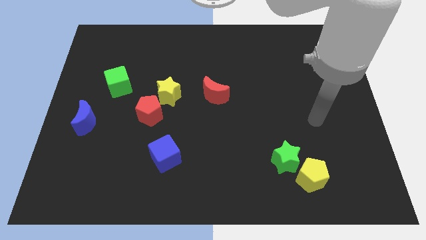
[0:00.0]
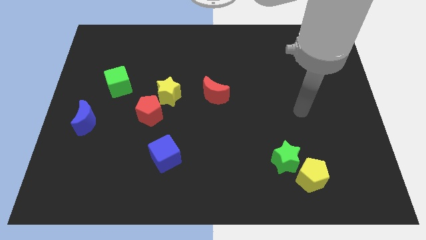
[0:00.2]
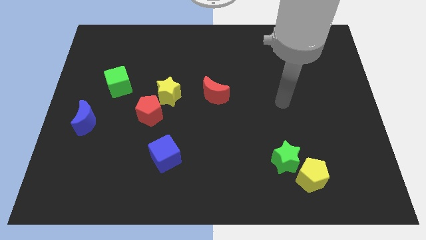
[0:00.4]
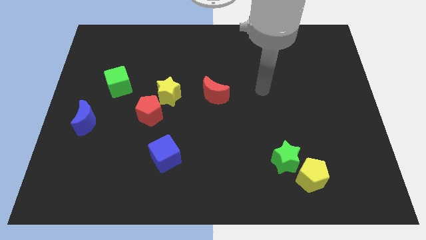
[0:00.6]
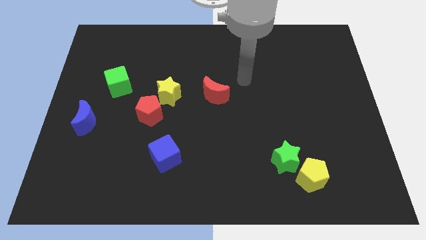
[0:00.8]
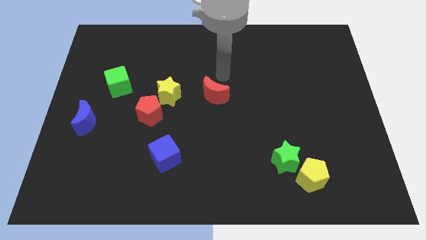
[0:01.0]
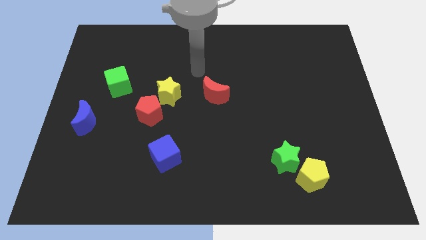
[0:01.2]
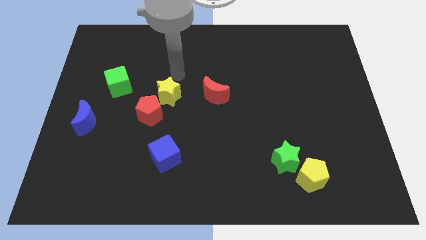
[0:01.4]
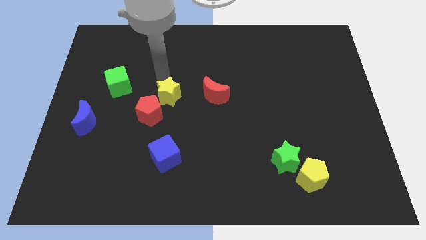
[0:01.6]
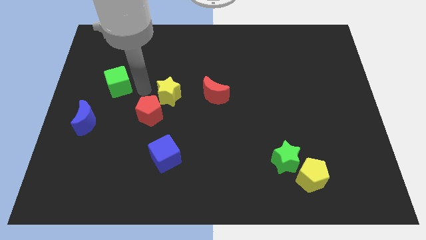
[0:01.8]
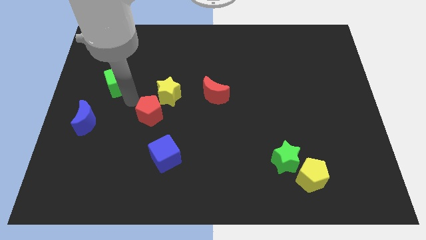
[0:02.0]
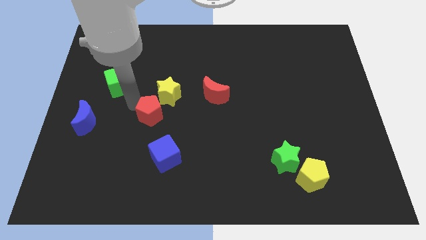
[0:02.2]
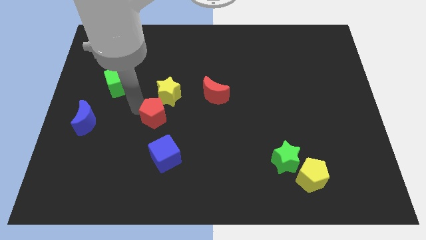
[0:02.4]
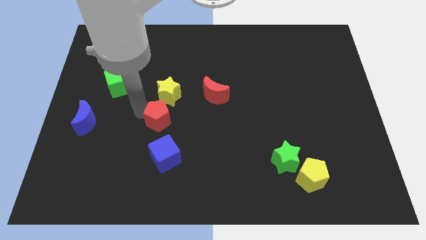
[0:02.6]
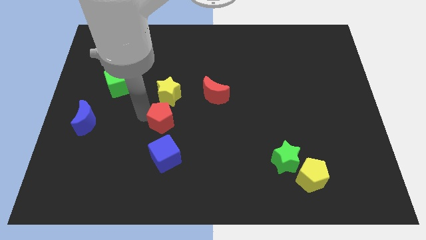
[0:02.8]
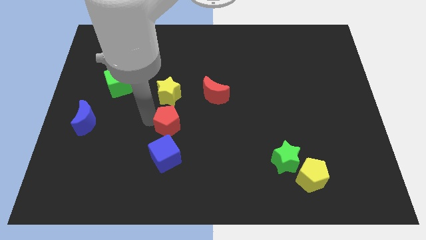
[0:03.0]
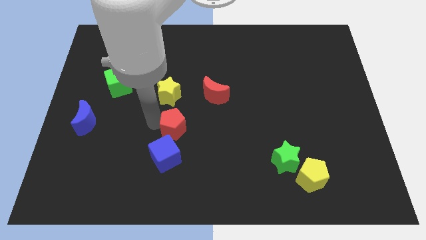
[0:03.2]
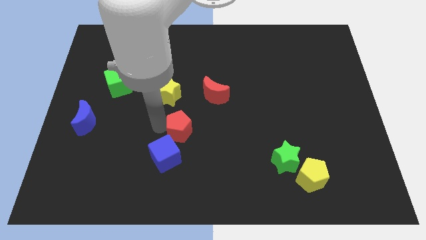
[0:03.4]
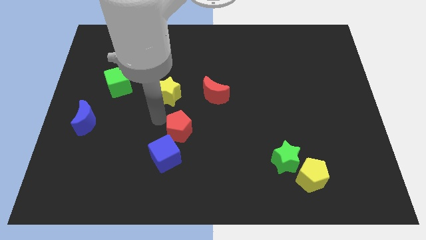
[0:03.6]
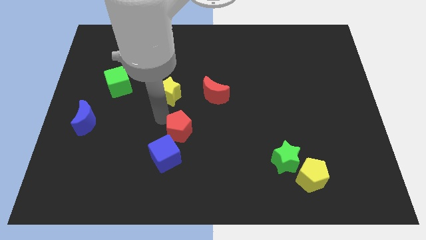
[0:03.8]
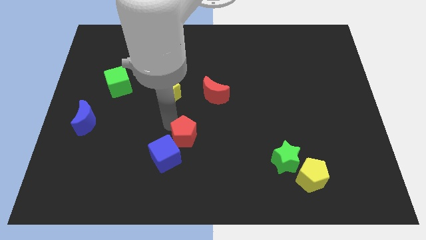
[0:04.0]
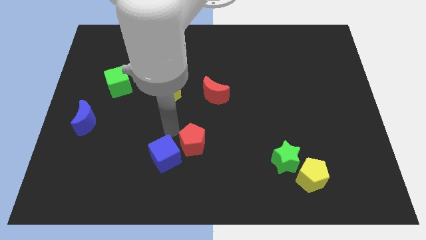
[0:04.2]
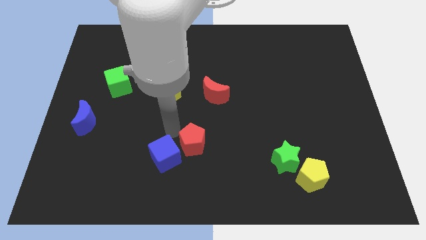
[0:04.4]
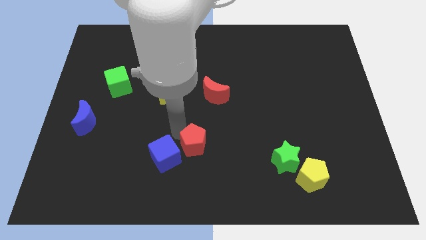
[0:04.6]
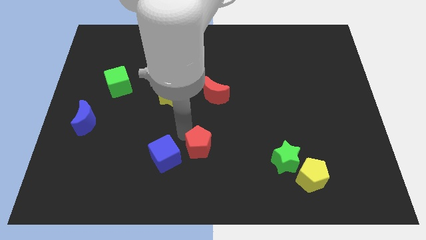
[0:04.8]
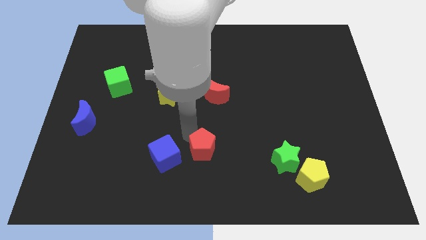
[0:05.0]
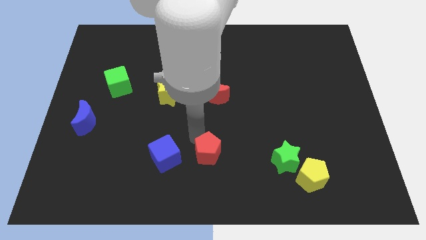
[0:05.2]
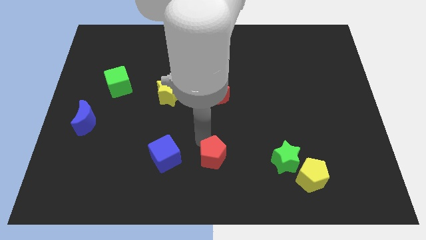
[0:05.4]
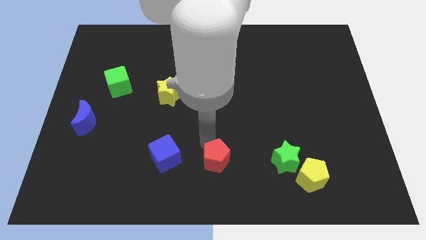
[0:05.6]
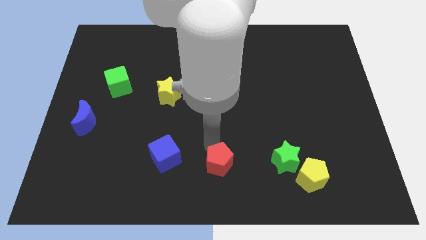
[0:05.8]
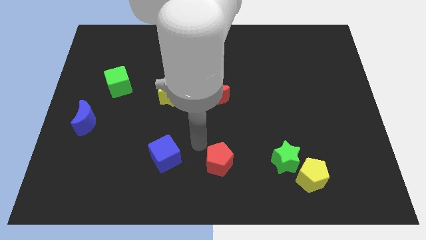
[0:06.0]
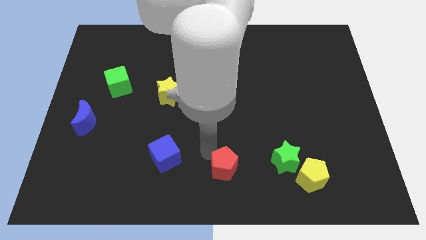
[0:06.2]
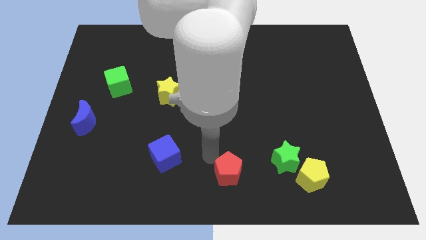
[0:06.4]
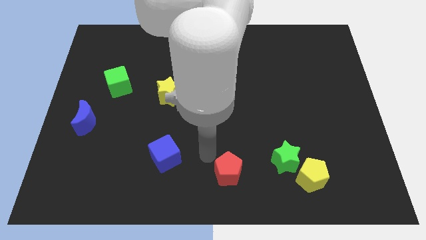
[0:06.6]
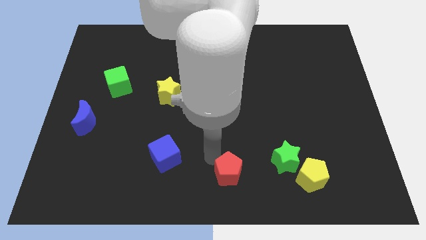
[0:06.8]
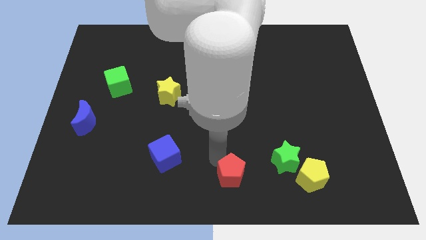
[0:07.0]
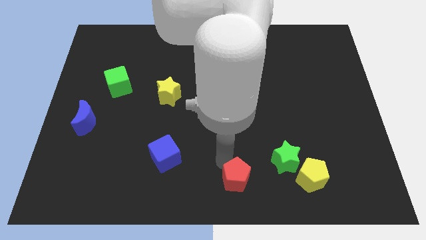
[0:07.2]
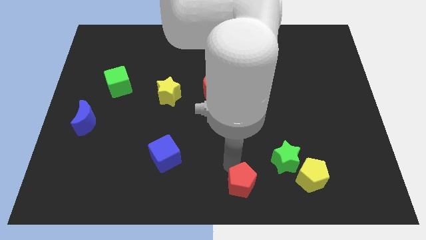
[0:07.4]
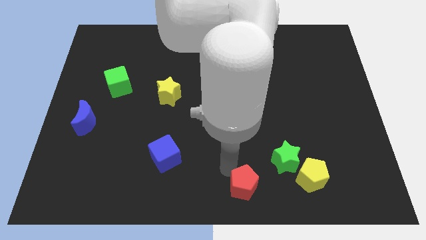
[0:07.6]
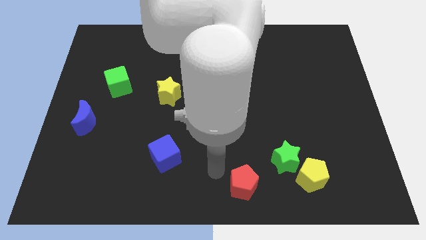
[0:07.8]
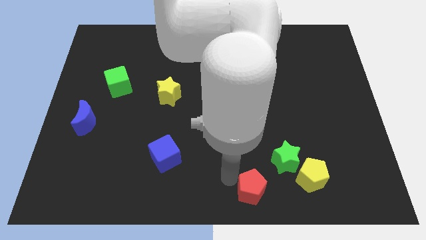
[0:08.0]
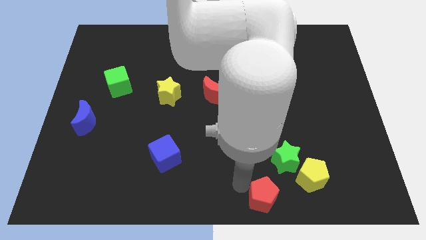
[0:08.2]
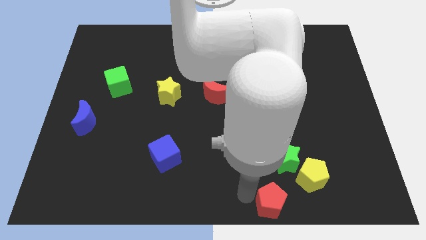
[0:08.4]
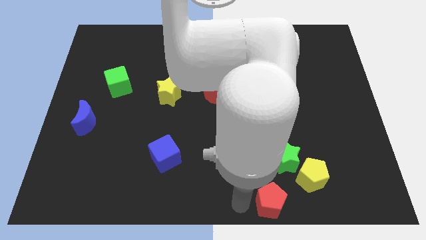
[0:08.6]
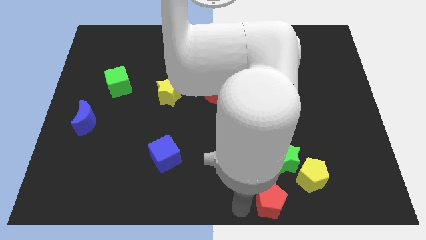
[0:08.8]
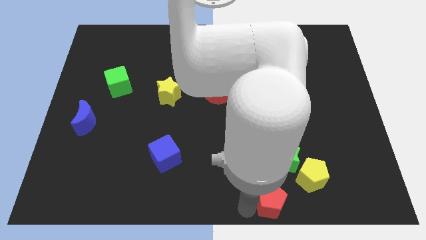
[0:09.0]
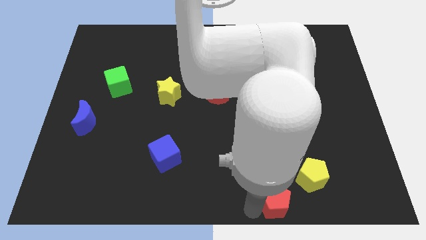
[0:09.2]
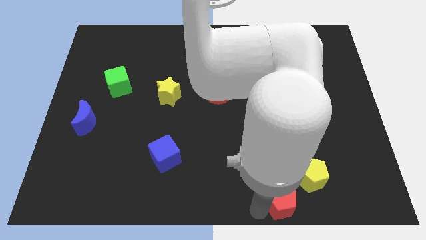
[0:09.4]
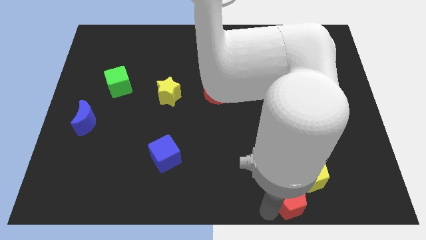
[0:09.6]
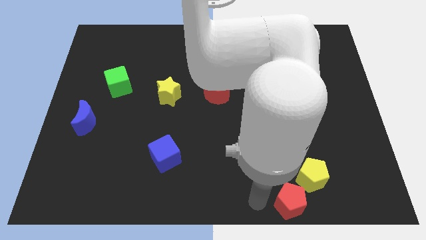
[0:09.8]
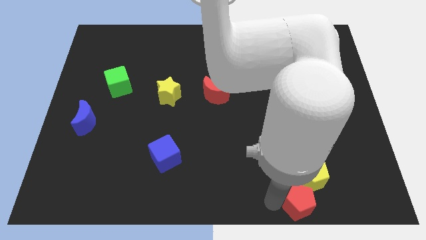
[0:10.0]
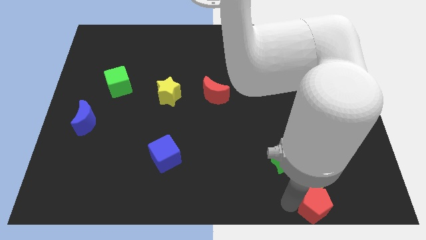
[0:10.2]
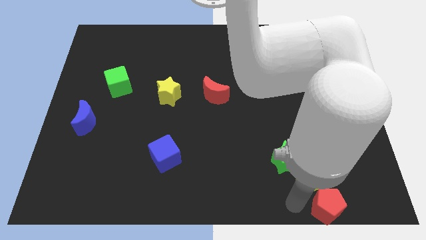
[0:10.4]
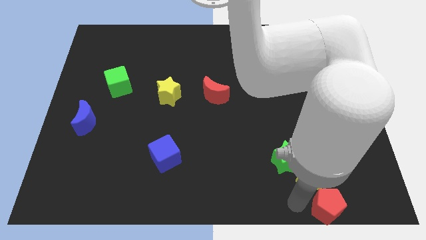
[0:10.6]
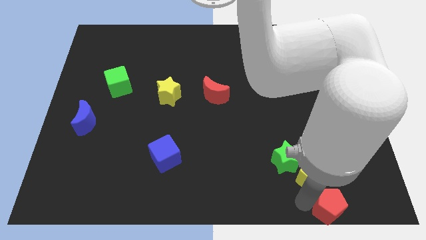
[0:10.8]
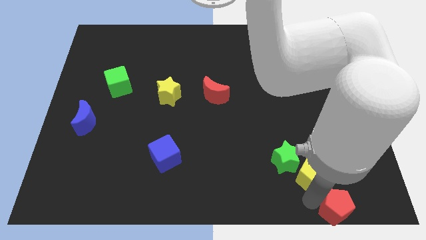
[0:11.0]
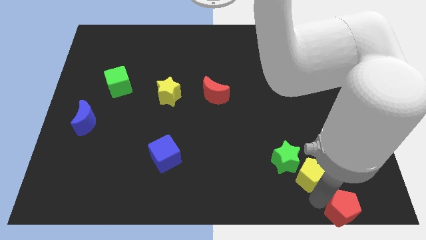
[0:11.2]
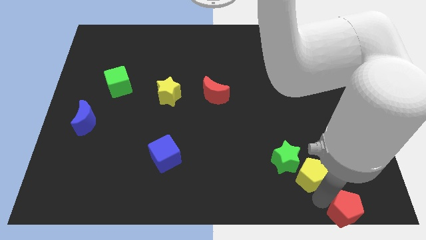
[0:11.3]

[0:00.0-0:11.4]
move the red pentagon to the bottom right corner

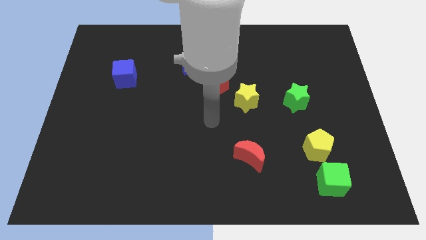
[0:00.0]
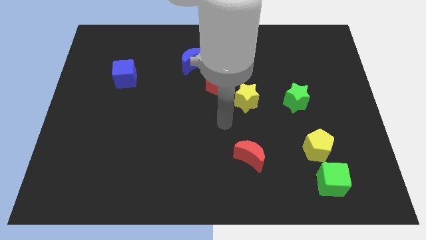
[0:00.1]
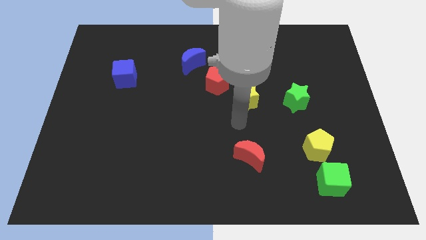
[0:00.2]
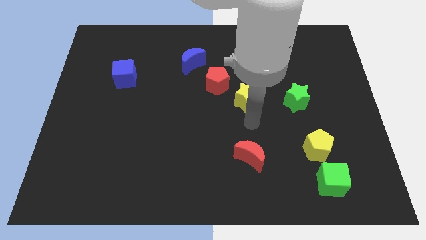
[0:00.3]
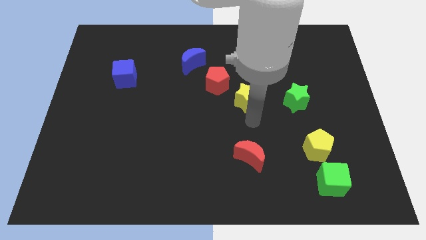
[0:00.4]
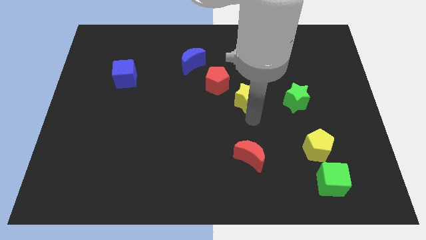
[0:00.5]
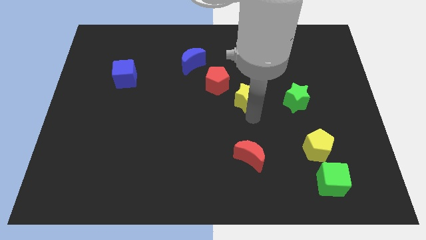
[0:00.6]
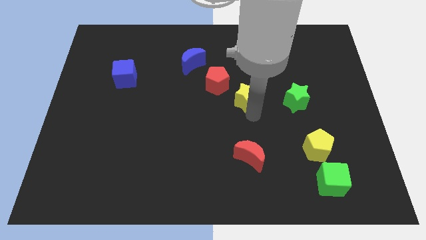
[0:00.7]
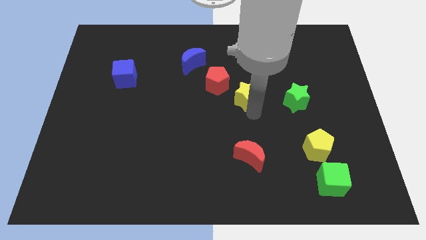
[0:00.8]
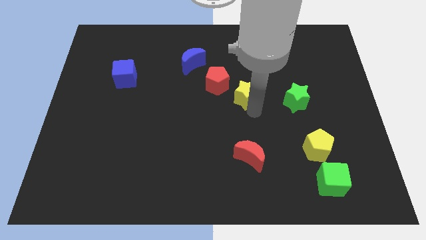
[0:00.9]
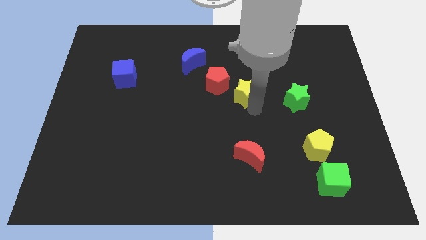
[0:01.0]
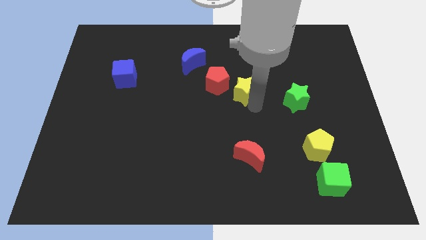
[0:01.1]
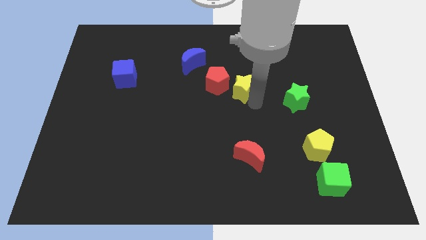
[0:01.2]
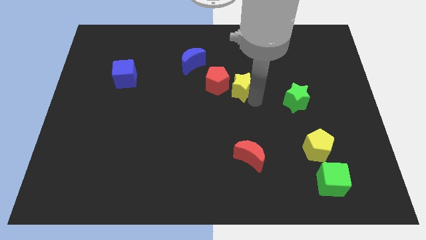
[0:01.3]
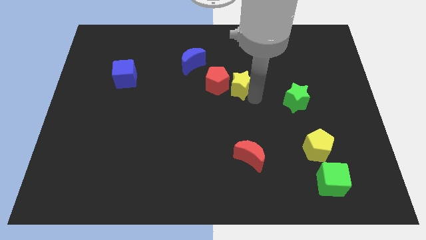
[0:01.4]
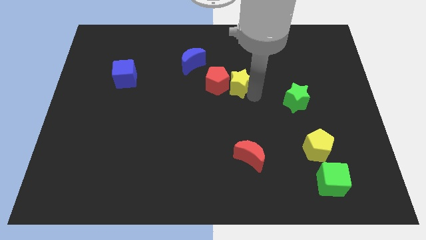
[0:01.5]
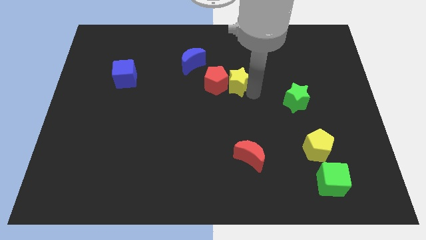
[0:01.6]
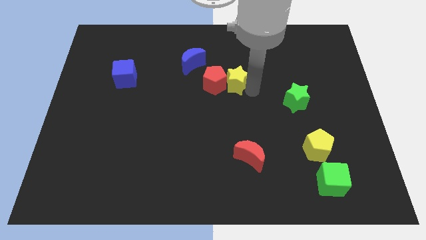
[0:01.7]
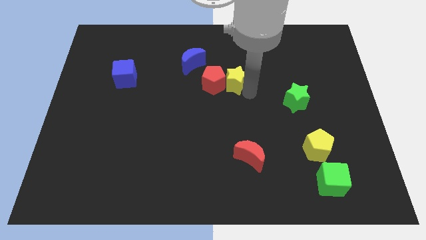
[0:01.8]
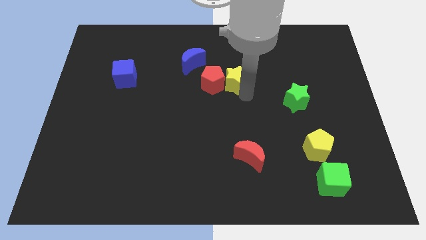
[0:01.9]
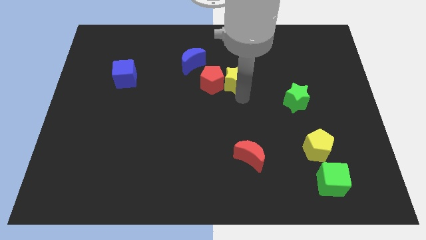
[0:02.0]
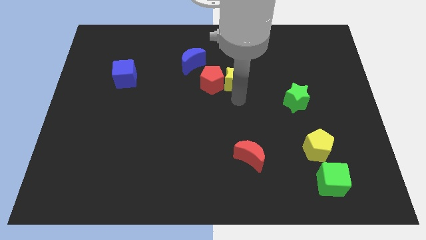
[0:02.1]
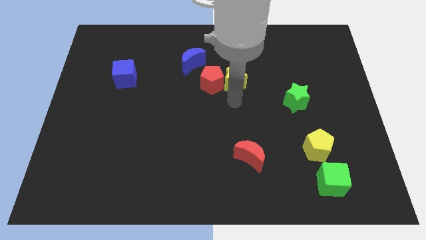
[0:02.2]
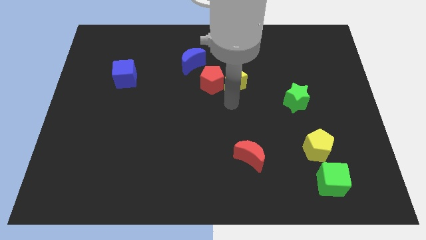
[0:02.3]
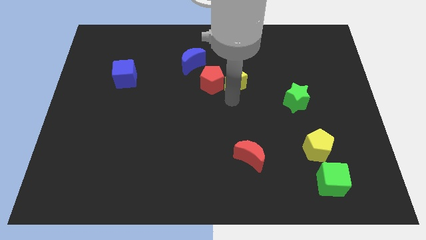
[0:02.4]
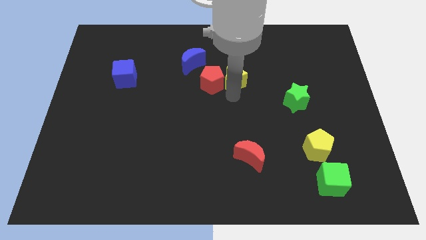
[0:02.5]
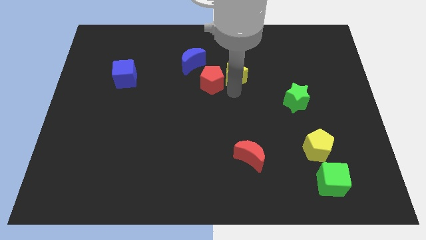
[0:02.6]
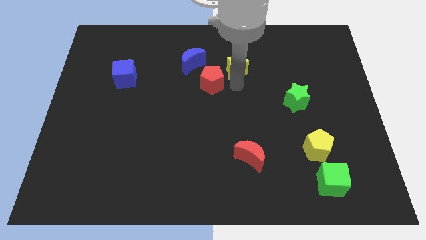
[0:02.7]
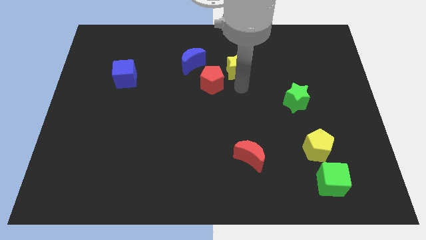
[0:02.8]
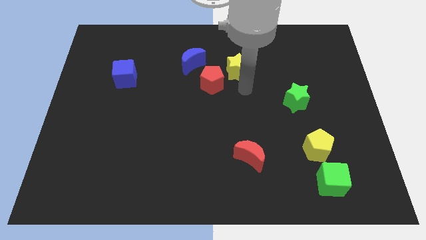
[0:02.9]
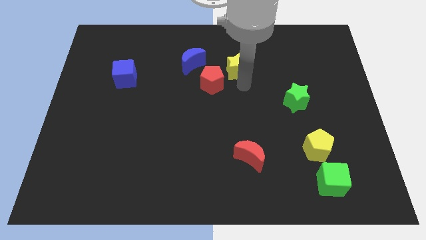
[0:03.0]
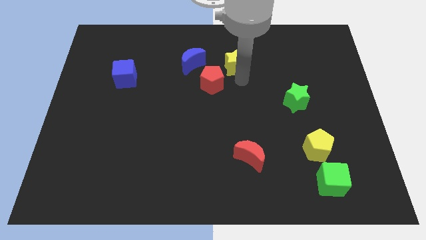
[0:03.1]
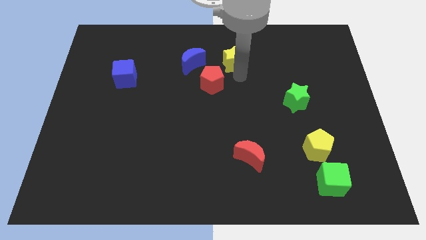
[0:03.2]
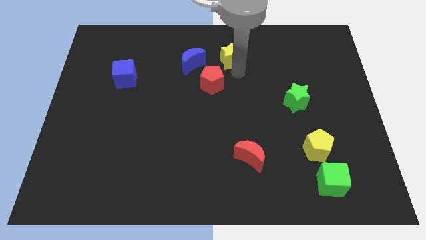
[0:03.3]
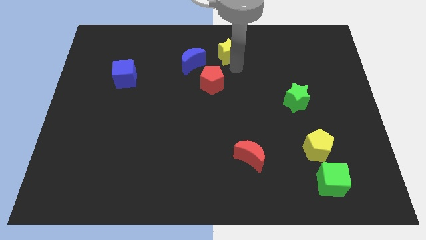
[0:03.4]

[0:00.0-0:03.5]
slide the yellow star to the top
